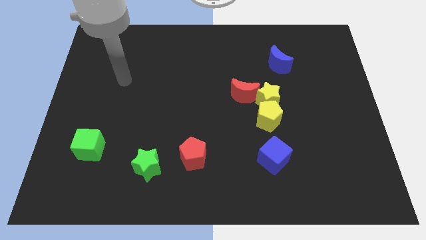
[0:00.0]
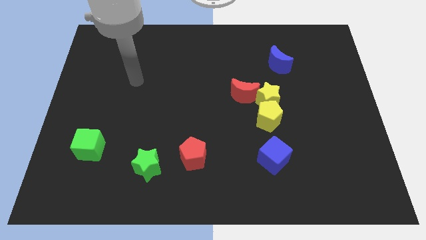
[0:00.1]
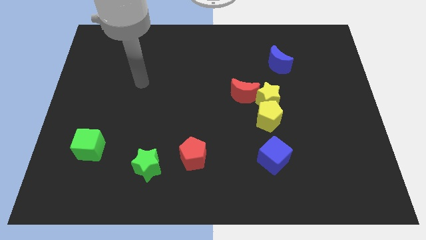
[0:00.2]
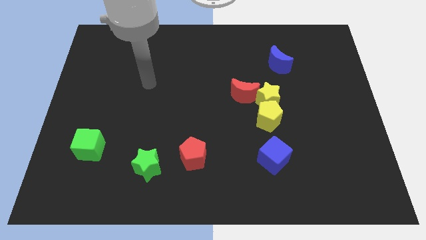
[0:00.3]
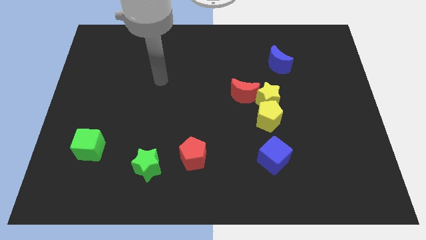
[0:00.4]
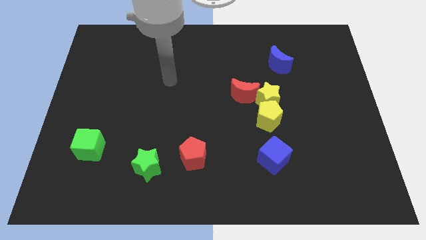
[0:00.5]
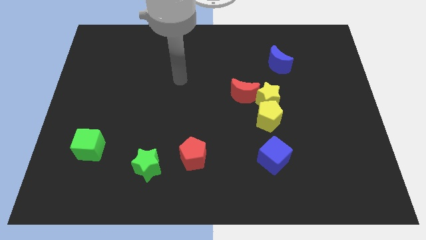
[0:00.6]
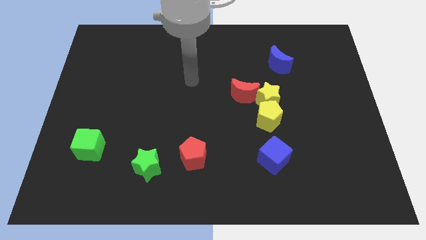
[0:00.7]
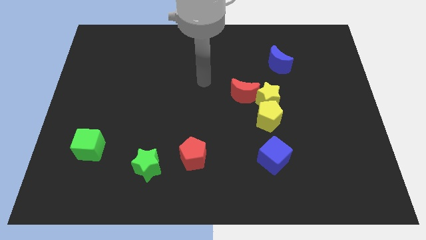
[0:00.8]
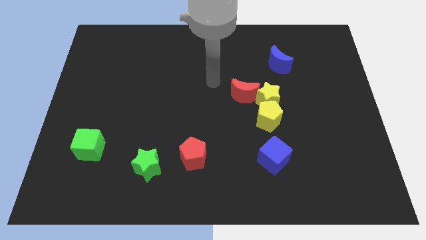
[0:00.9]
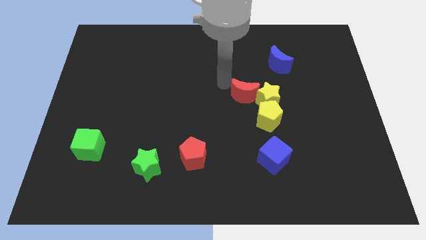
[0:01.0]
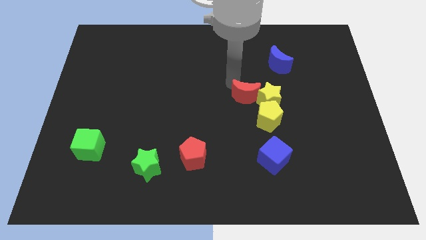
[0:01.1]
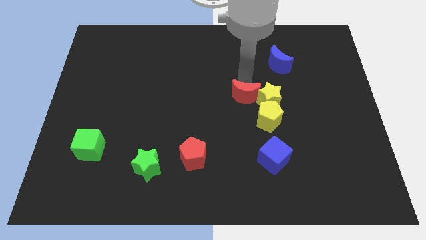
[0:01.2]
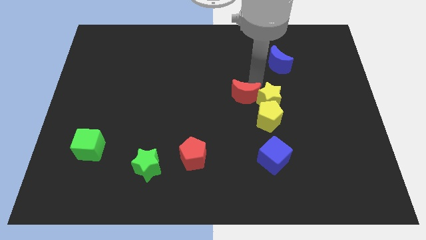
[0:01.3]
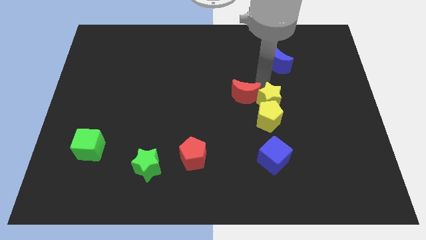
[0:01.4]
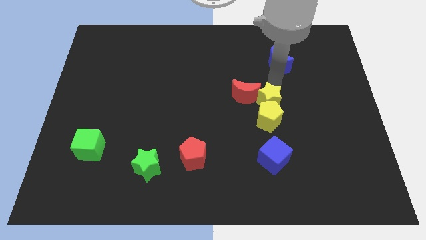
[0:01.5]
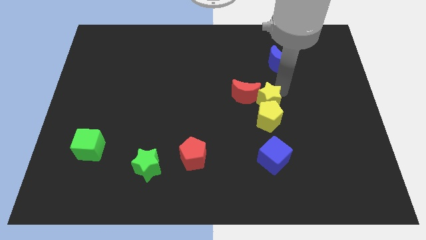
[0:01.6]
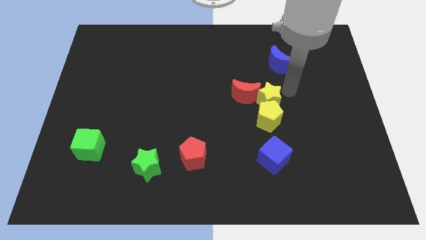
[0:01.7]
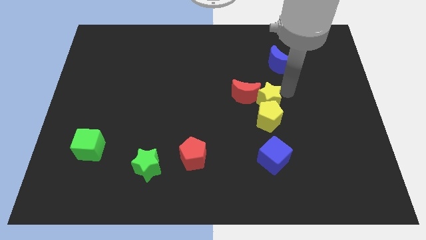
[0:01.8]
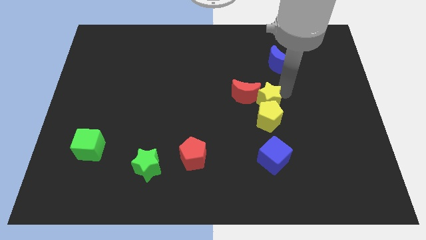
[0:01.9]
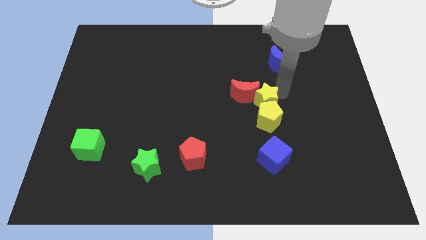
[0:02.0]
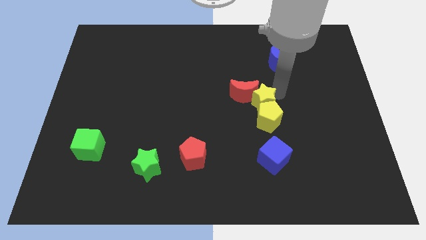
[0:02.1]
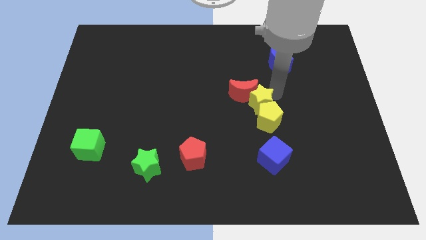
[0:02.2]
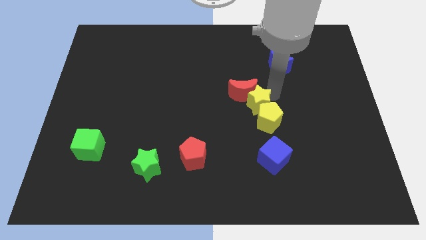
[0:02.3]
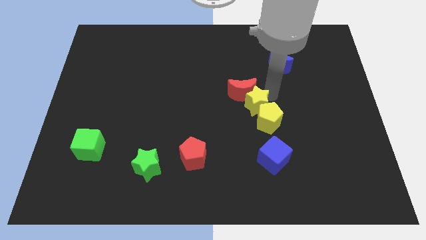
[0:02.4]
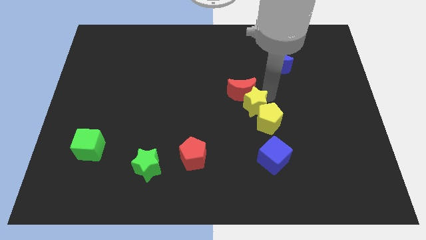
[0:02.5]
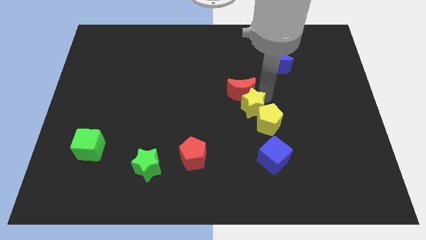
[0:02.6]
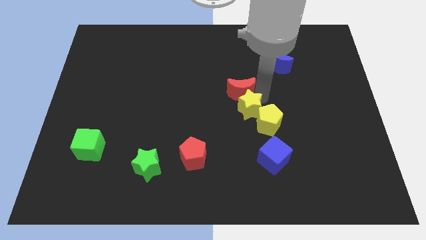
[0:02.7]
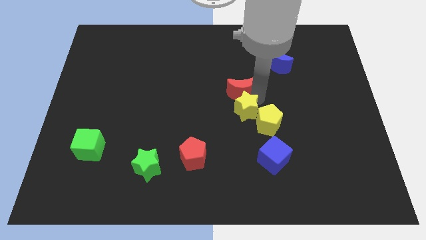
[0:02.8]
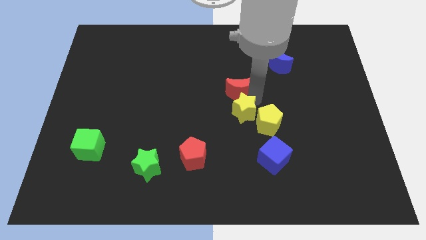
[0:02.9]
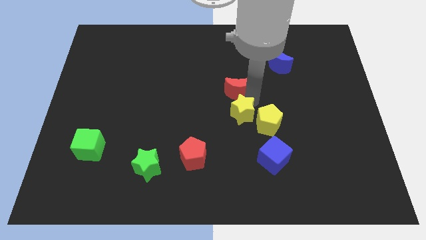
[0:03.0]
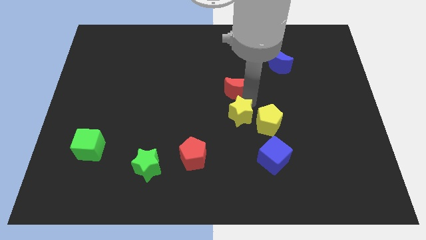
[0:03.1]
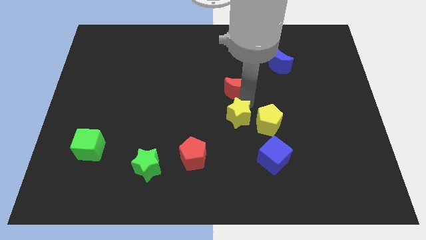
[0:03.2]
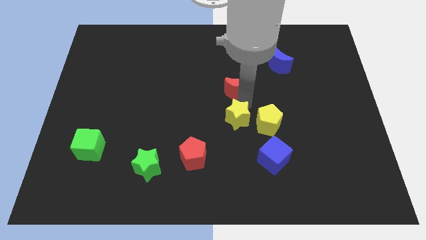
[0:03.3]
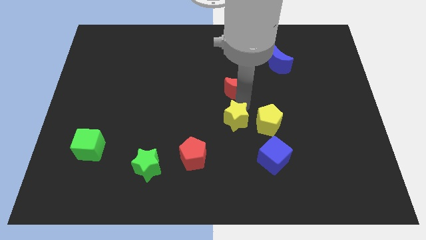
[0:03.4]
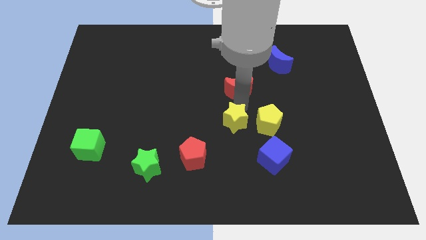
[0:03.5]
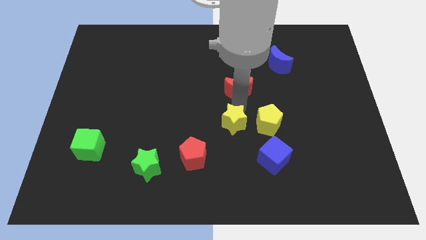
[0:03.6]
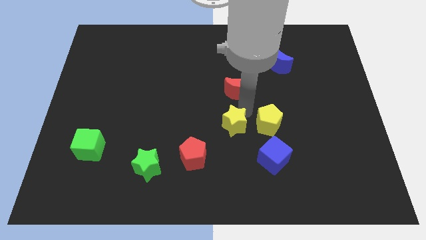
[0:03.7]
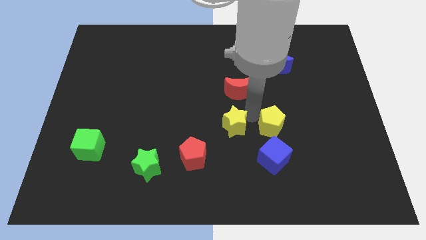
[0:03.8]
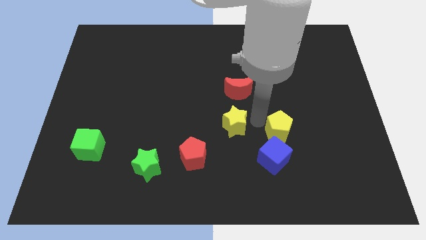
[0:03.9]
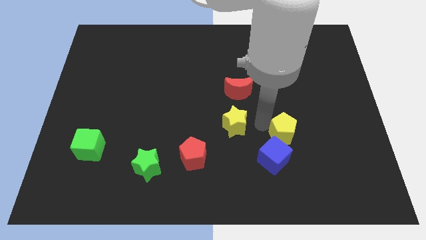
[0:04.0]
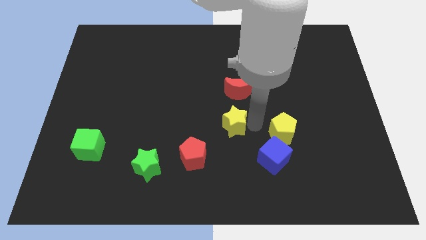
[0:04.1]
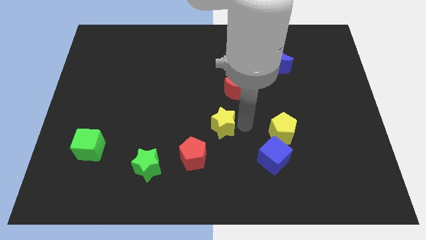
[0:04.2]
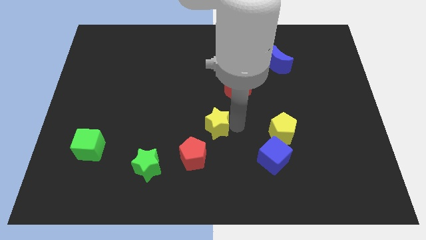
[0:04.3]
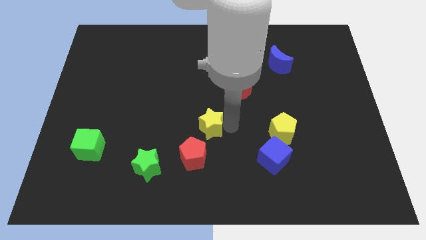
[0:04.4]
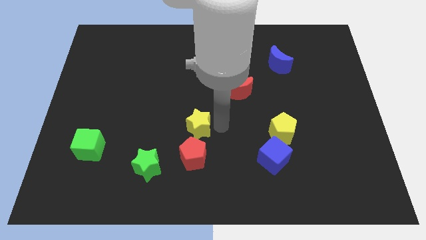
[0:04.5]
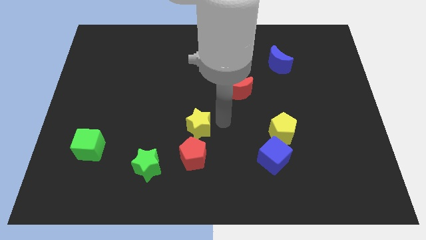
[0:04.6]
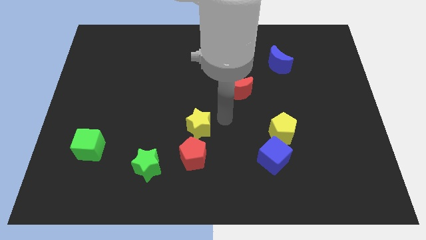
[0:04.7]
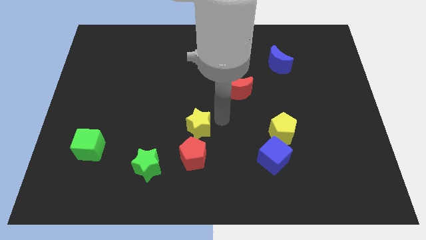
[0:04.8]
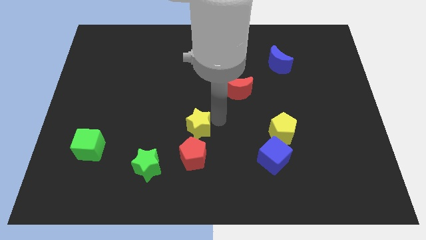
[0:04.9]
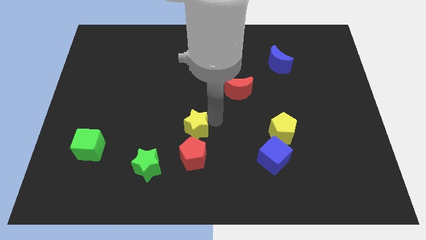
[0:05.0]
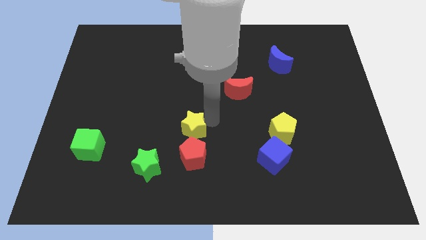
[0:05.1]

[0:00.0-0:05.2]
push the yellow star to the top left side of the red pentagon

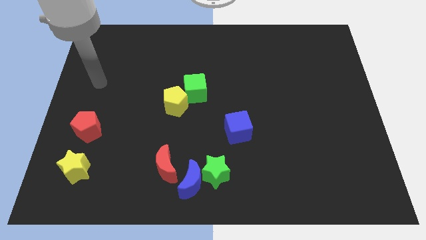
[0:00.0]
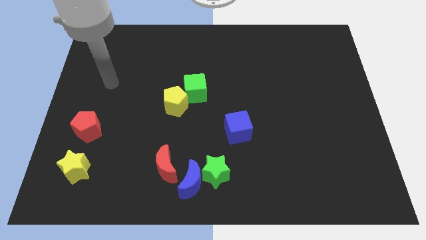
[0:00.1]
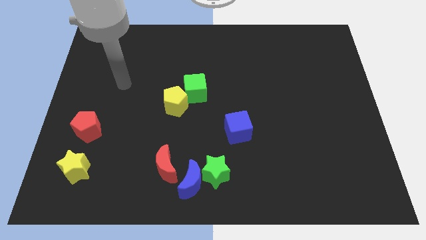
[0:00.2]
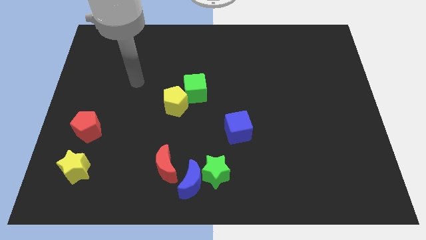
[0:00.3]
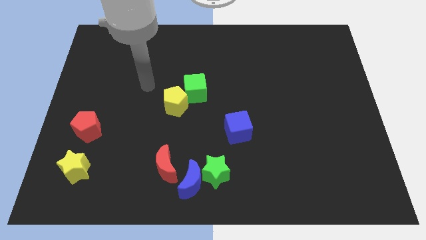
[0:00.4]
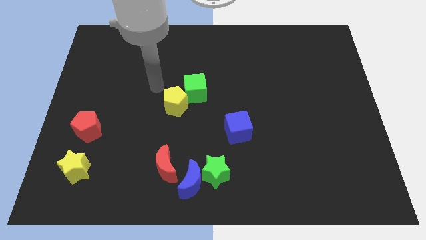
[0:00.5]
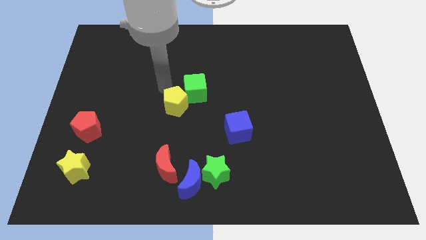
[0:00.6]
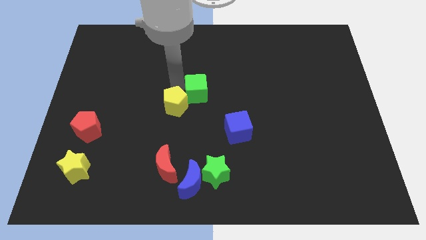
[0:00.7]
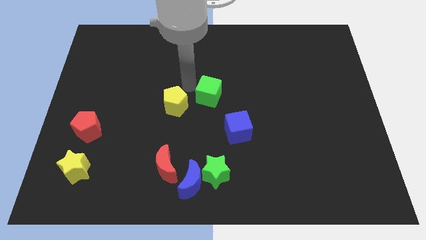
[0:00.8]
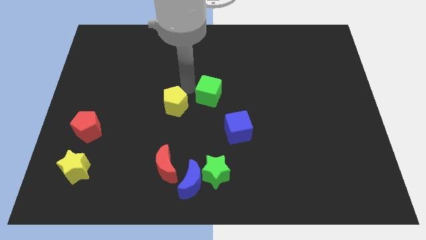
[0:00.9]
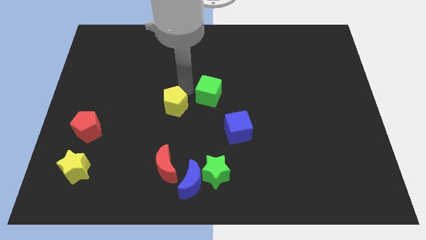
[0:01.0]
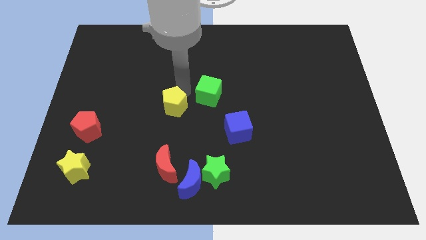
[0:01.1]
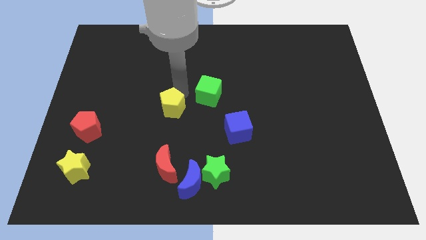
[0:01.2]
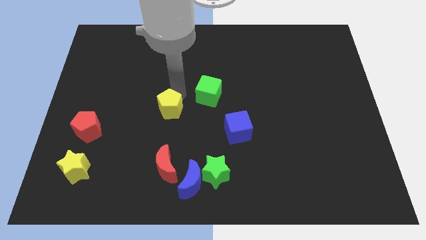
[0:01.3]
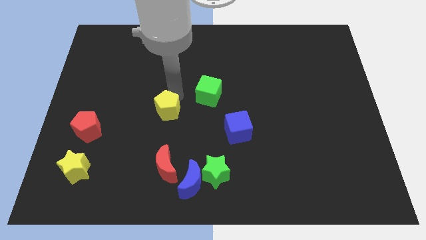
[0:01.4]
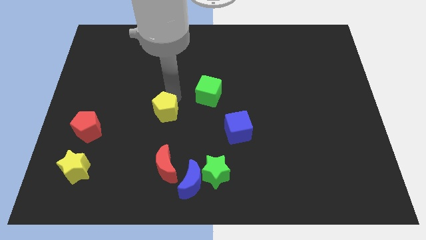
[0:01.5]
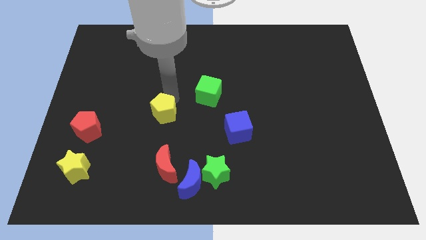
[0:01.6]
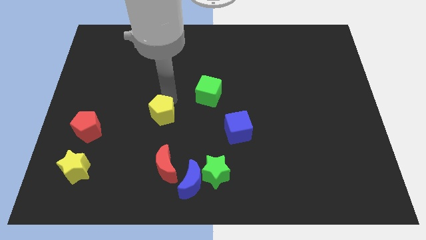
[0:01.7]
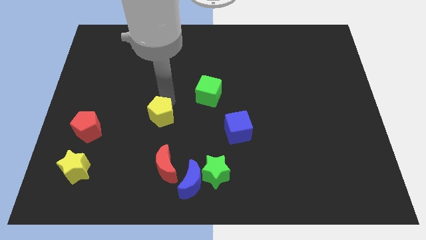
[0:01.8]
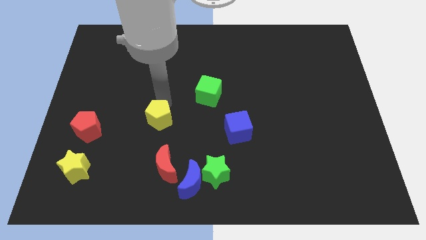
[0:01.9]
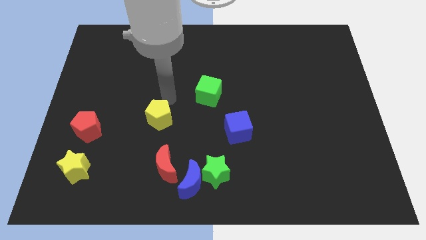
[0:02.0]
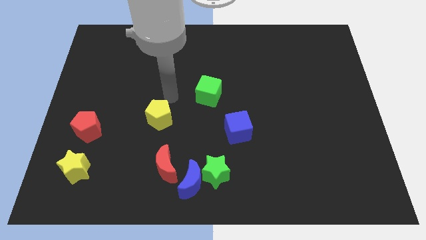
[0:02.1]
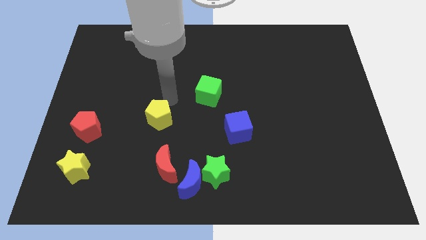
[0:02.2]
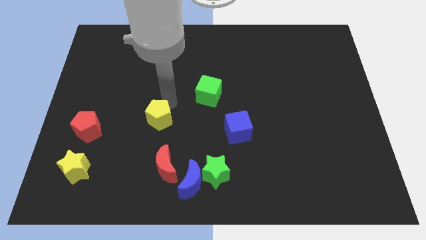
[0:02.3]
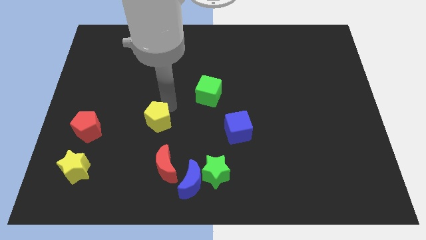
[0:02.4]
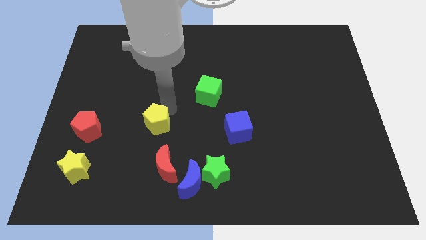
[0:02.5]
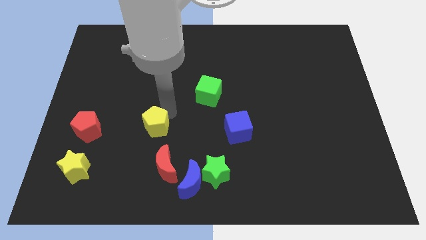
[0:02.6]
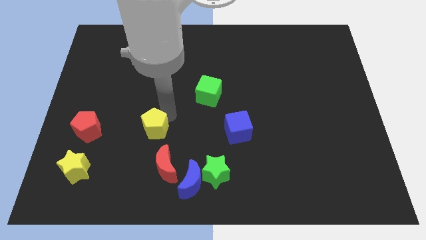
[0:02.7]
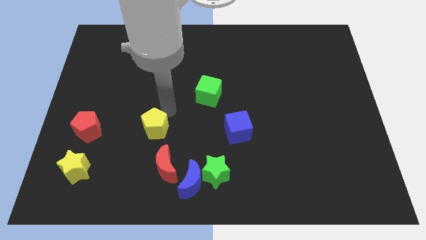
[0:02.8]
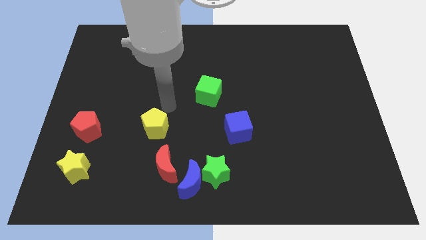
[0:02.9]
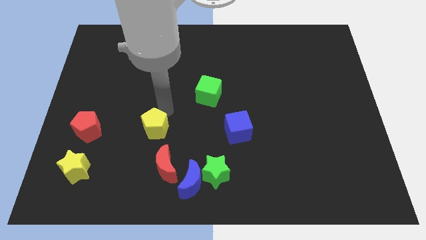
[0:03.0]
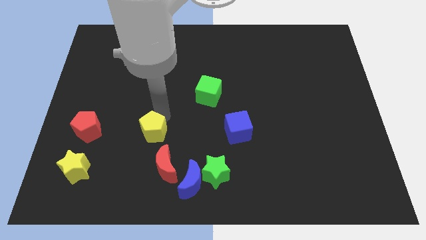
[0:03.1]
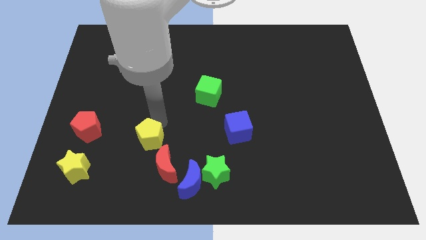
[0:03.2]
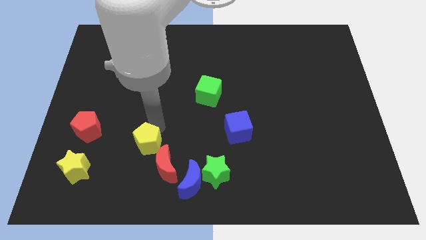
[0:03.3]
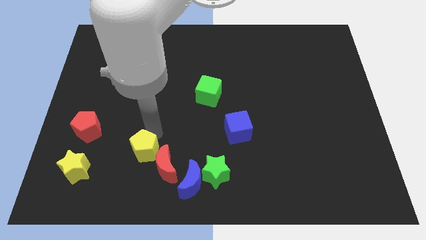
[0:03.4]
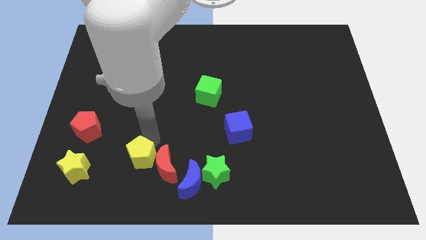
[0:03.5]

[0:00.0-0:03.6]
put the yellow pentagon just right of the yellow star
